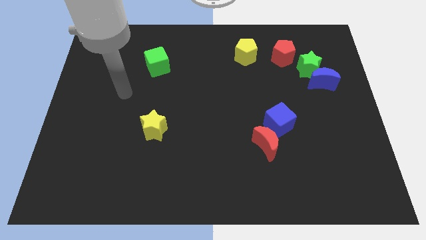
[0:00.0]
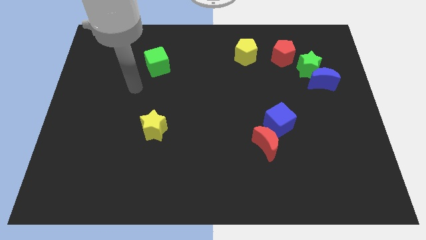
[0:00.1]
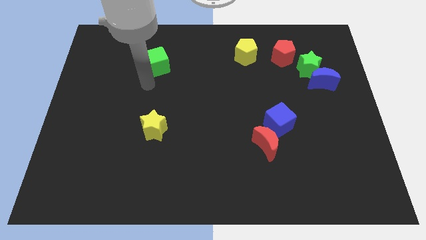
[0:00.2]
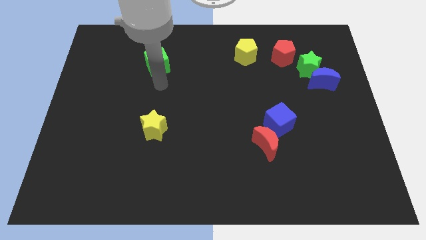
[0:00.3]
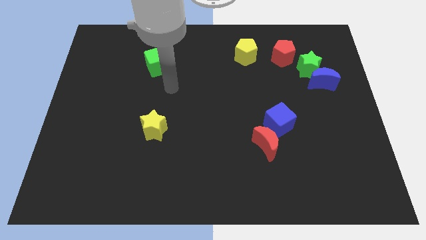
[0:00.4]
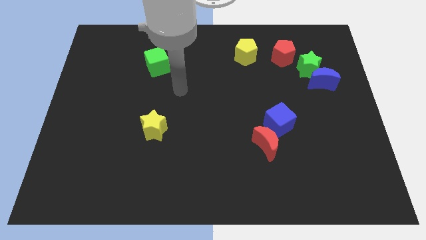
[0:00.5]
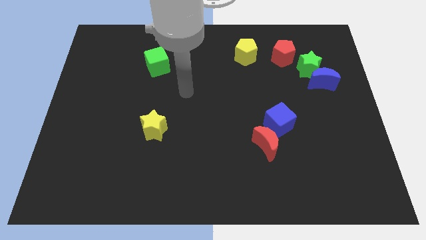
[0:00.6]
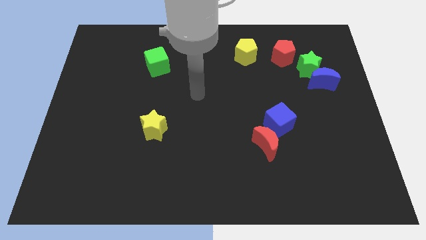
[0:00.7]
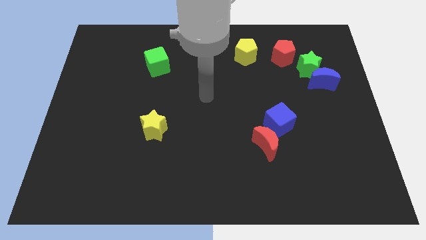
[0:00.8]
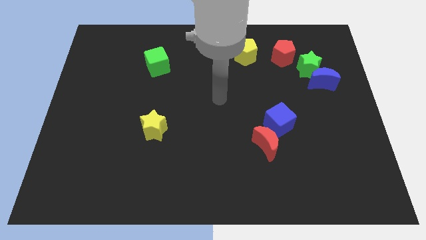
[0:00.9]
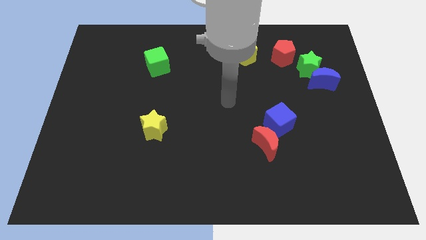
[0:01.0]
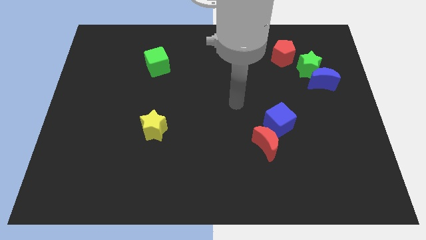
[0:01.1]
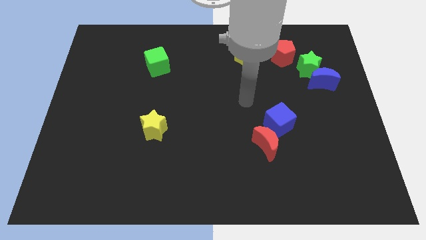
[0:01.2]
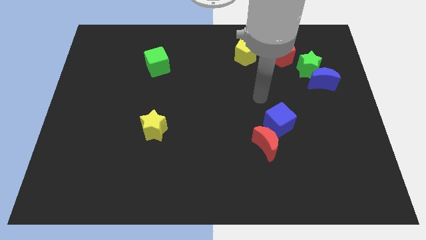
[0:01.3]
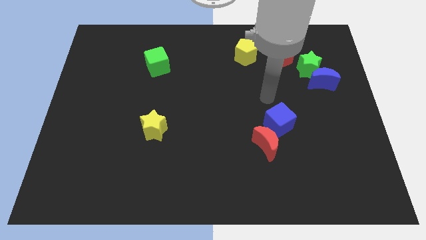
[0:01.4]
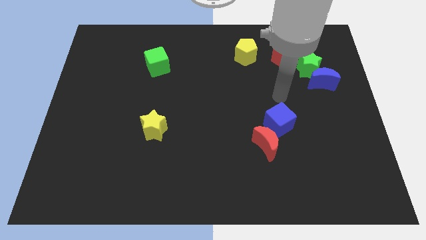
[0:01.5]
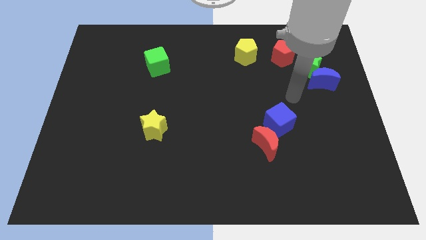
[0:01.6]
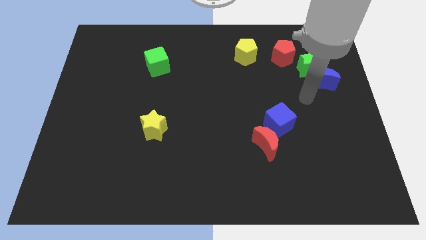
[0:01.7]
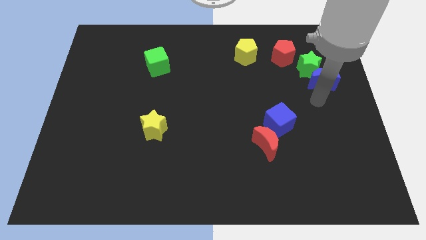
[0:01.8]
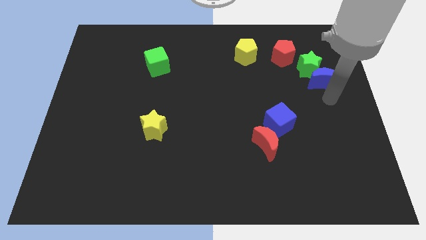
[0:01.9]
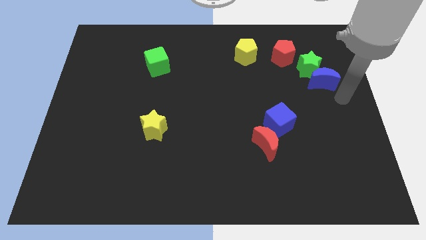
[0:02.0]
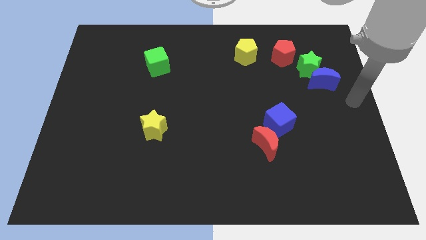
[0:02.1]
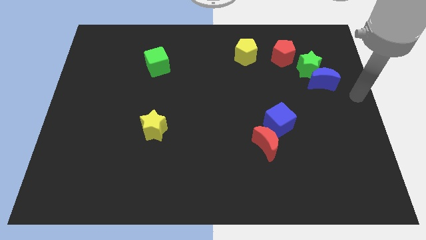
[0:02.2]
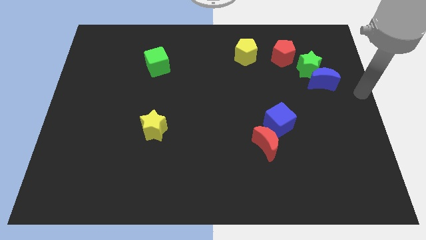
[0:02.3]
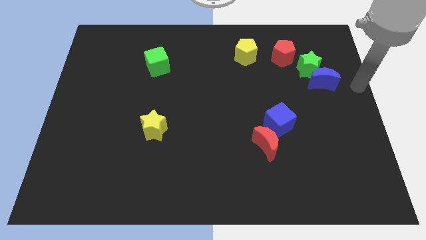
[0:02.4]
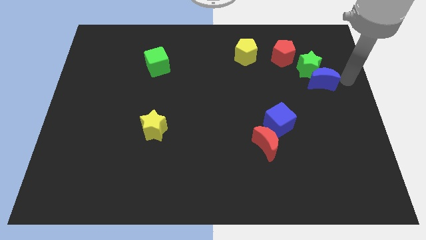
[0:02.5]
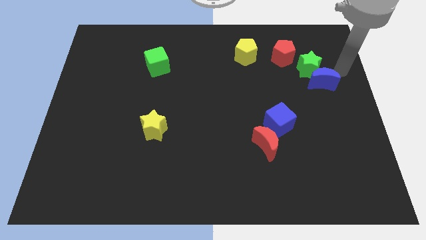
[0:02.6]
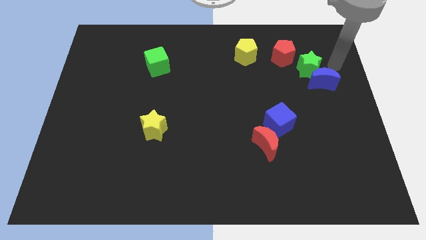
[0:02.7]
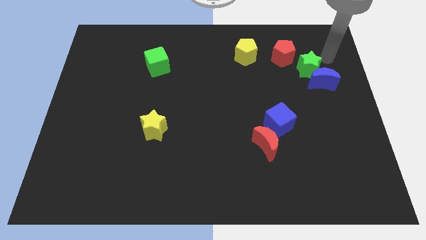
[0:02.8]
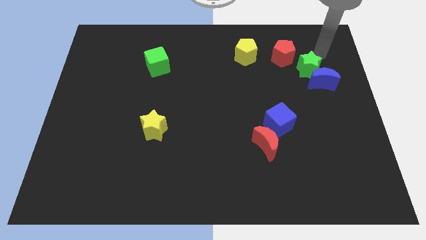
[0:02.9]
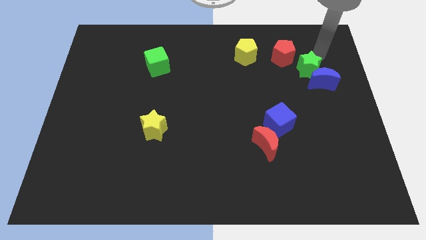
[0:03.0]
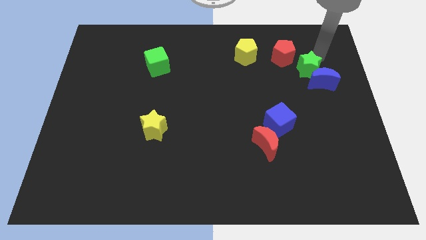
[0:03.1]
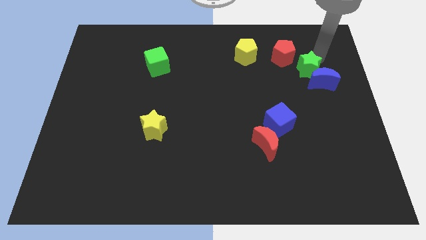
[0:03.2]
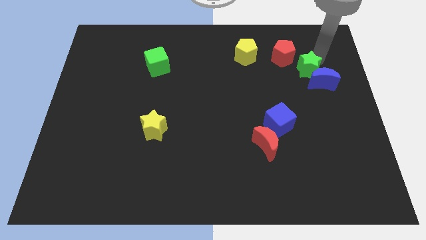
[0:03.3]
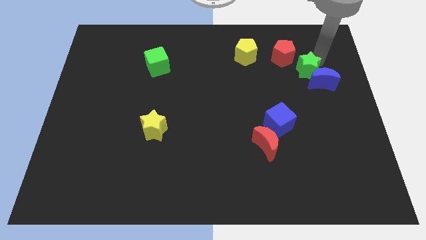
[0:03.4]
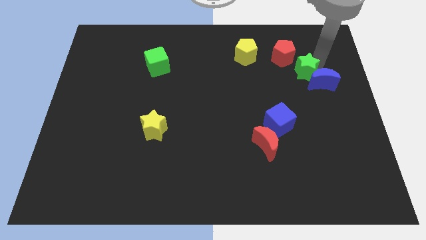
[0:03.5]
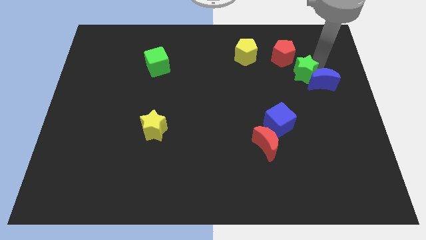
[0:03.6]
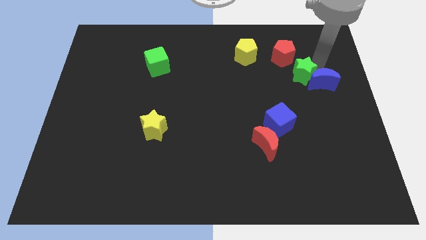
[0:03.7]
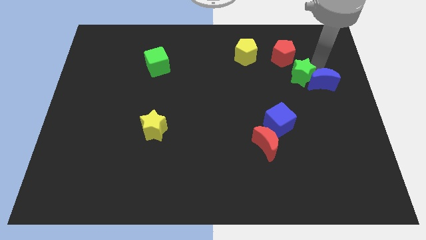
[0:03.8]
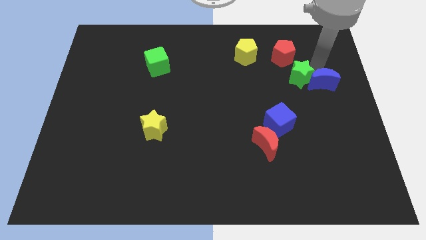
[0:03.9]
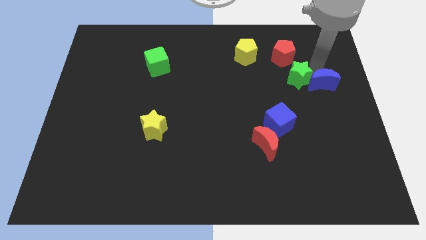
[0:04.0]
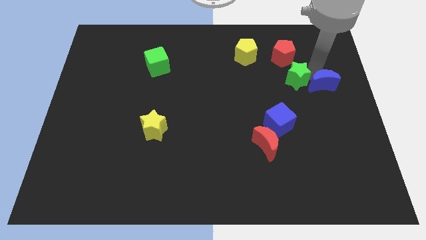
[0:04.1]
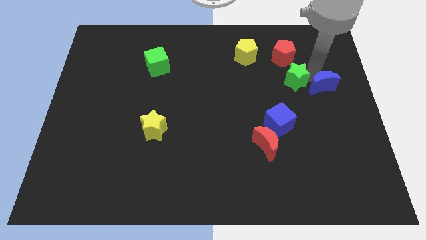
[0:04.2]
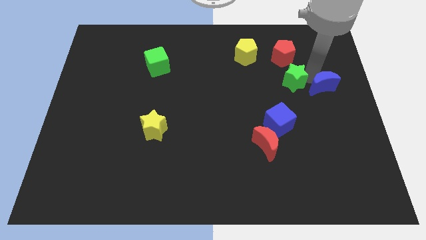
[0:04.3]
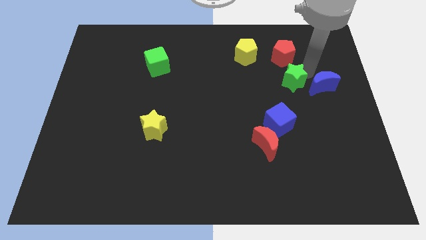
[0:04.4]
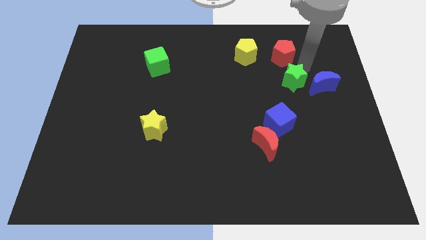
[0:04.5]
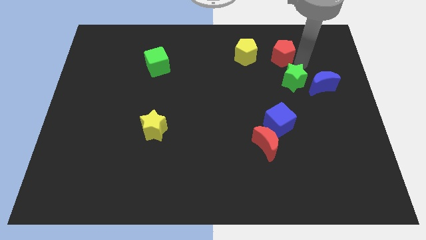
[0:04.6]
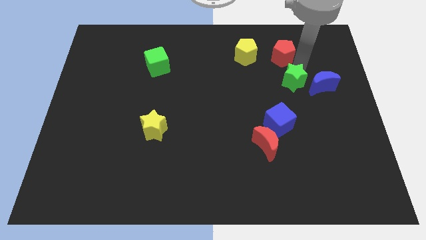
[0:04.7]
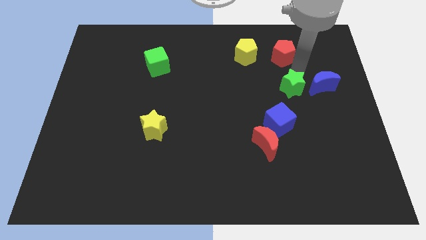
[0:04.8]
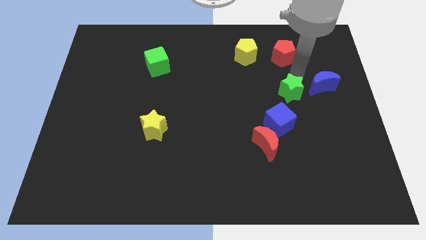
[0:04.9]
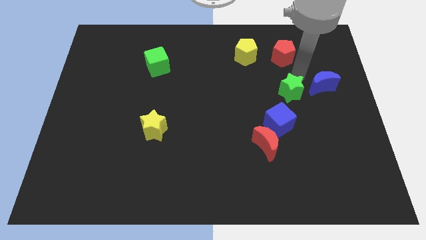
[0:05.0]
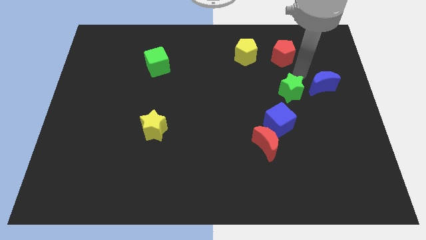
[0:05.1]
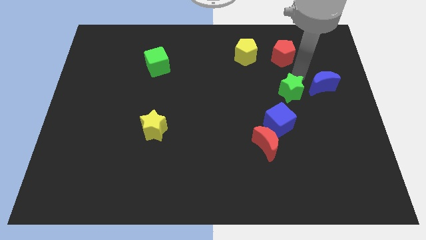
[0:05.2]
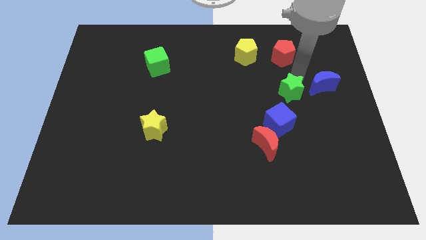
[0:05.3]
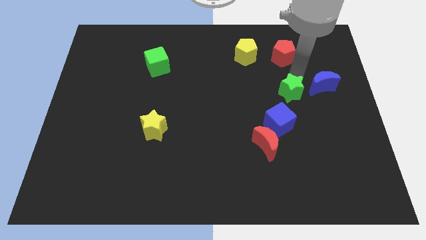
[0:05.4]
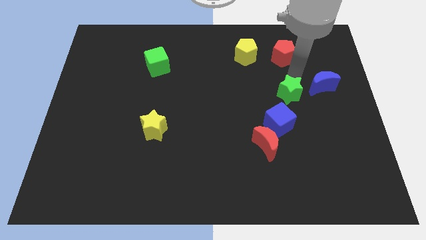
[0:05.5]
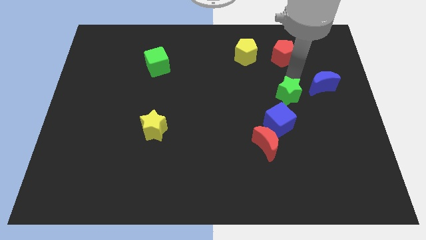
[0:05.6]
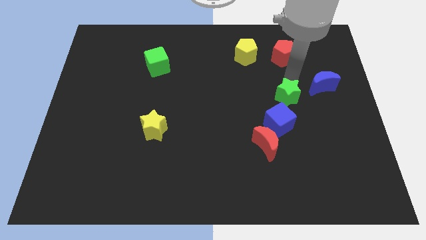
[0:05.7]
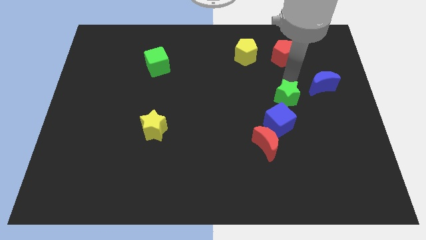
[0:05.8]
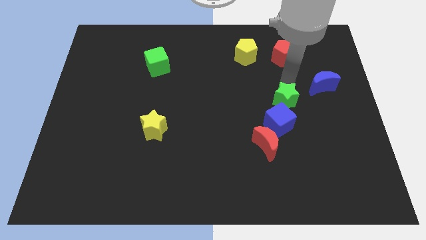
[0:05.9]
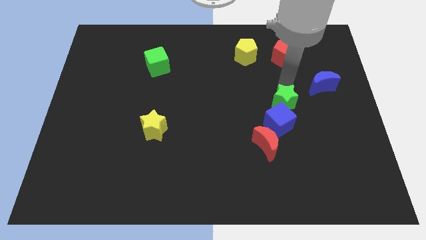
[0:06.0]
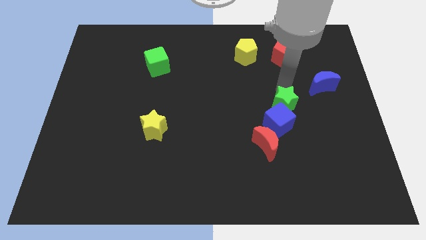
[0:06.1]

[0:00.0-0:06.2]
push the green star towards the blue cube
